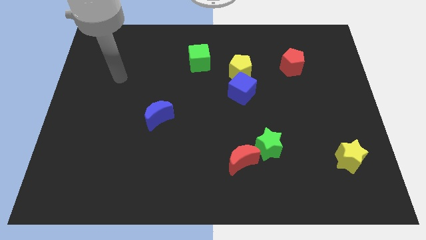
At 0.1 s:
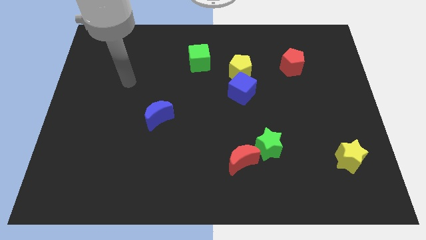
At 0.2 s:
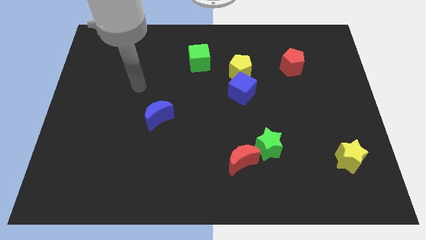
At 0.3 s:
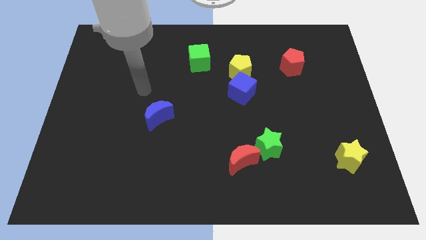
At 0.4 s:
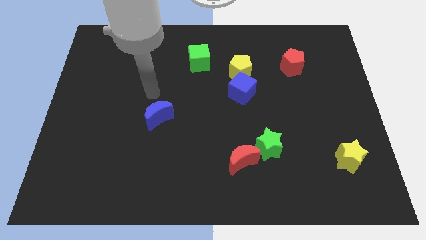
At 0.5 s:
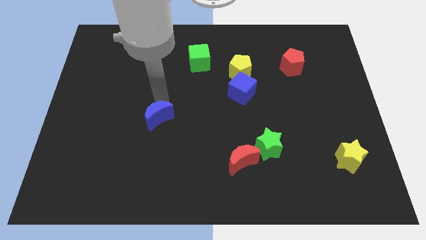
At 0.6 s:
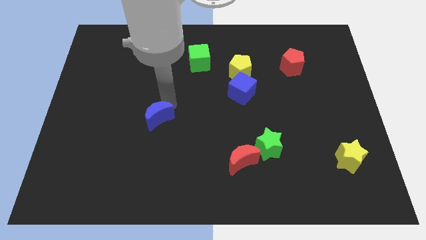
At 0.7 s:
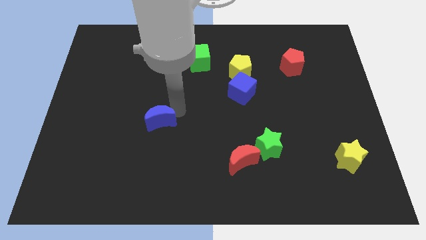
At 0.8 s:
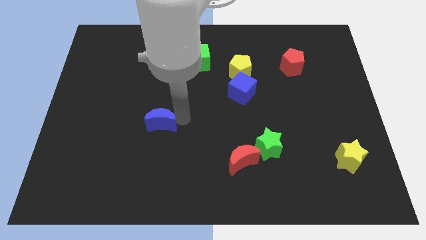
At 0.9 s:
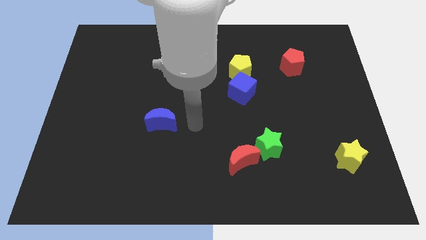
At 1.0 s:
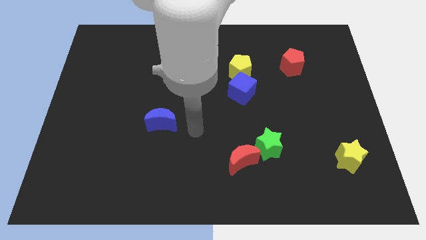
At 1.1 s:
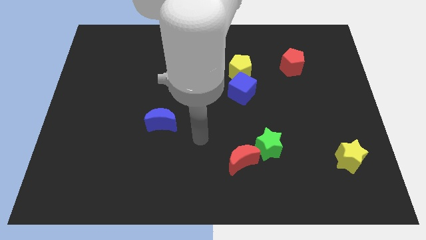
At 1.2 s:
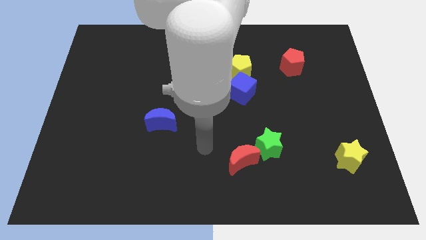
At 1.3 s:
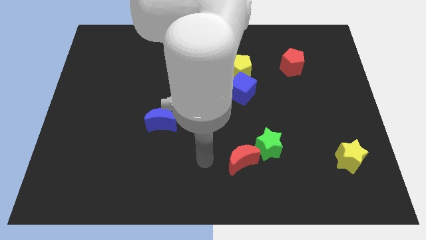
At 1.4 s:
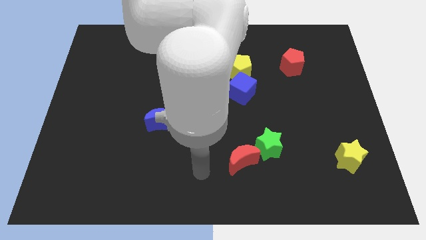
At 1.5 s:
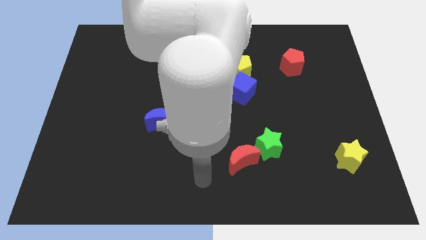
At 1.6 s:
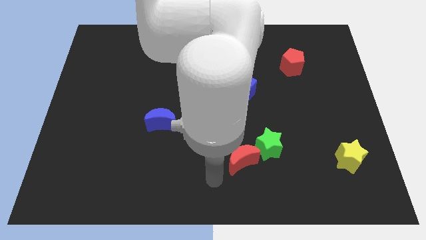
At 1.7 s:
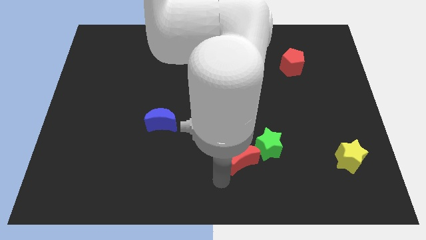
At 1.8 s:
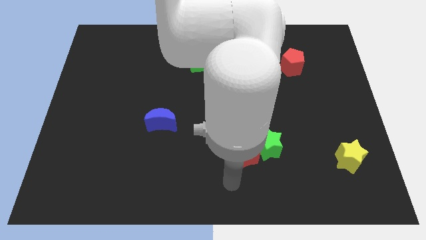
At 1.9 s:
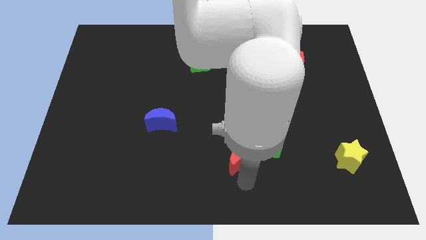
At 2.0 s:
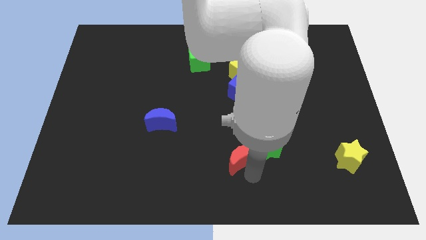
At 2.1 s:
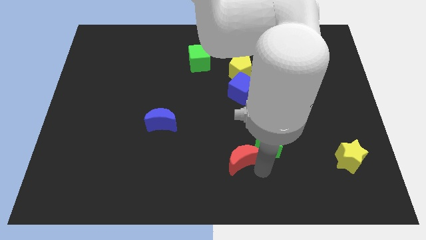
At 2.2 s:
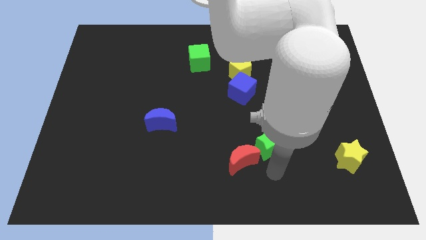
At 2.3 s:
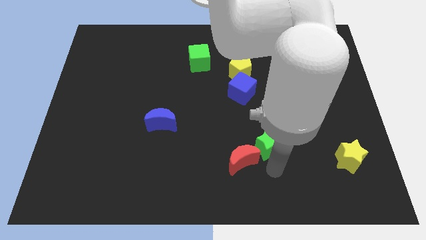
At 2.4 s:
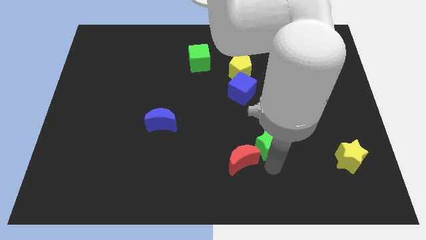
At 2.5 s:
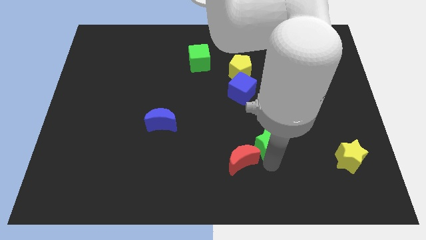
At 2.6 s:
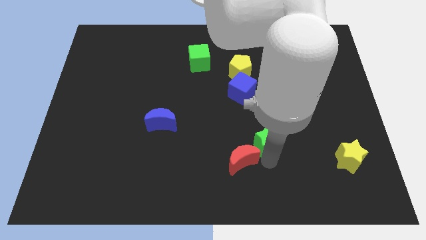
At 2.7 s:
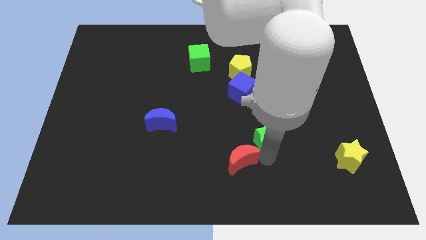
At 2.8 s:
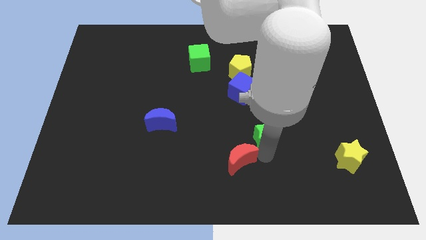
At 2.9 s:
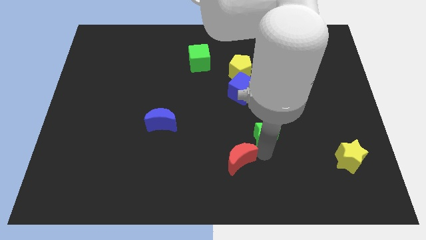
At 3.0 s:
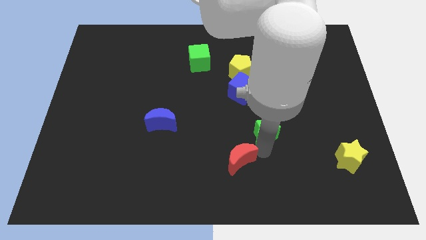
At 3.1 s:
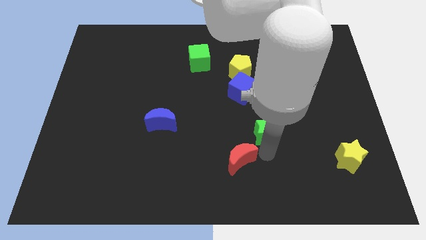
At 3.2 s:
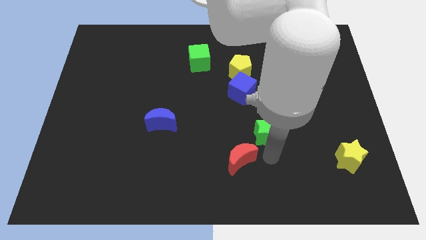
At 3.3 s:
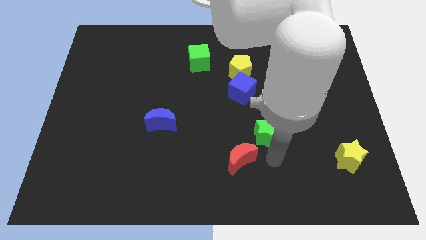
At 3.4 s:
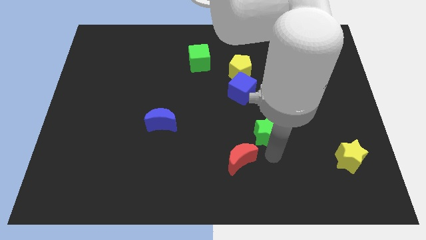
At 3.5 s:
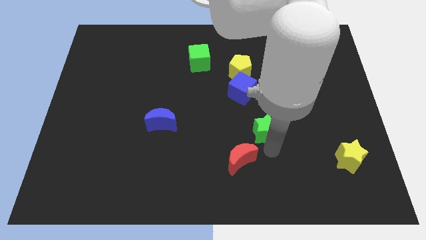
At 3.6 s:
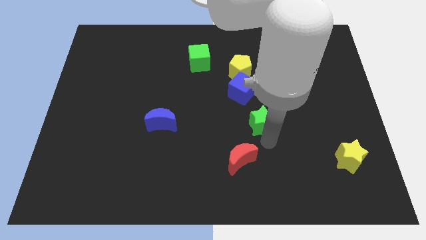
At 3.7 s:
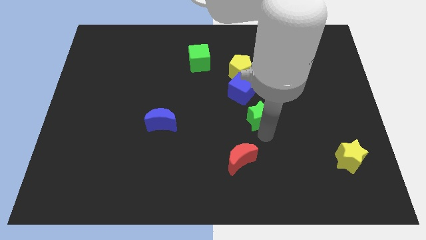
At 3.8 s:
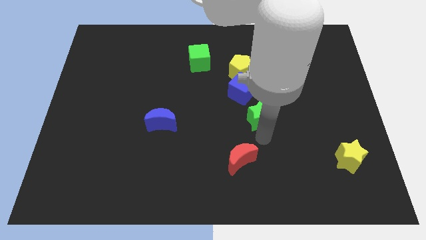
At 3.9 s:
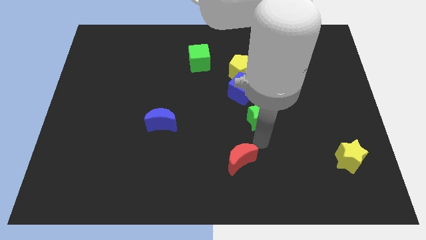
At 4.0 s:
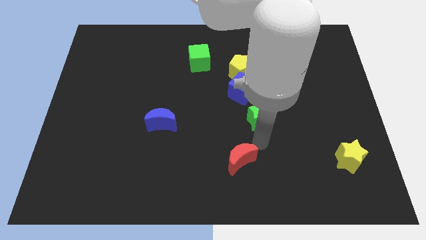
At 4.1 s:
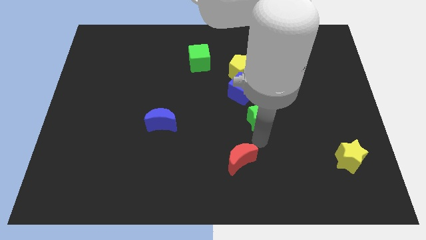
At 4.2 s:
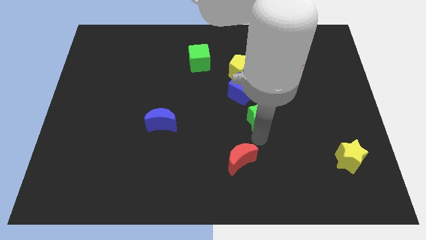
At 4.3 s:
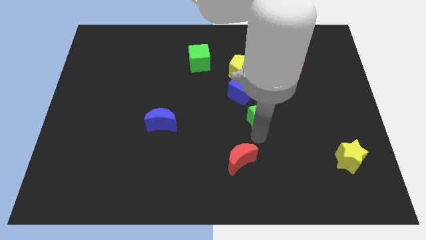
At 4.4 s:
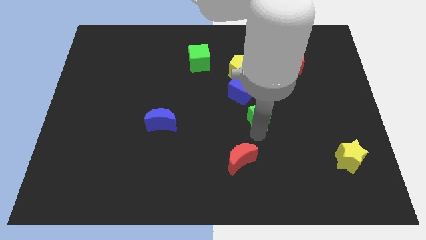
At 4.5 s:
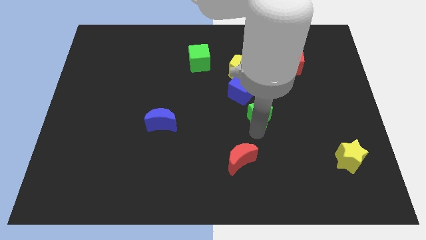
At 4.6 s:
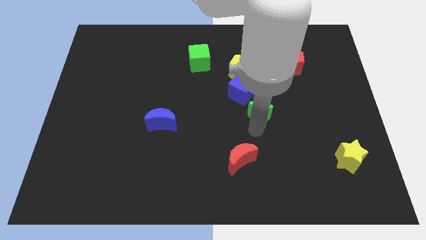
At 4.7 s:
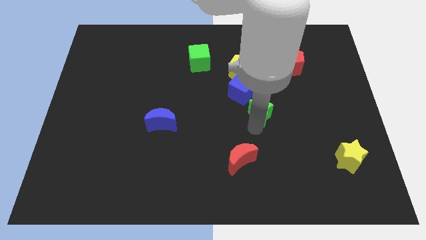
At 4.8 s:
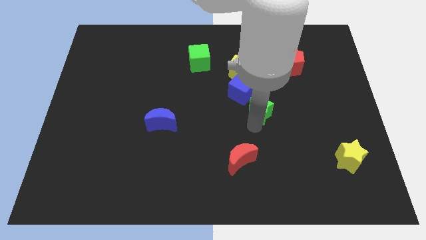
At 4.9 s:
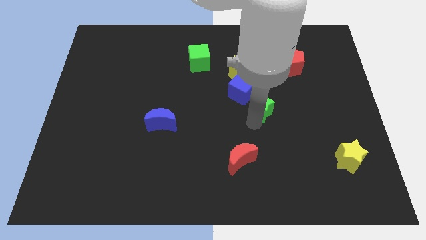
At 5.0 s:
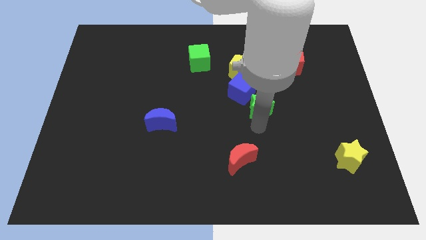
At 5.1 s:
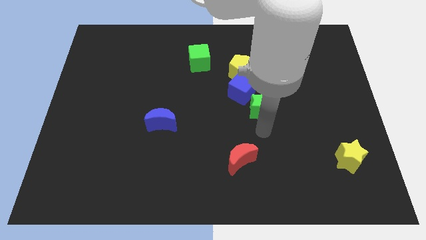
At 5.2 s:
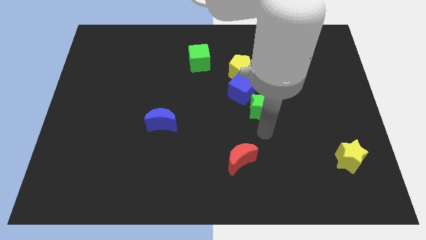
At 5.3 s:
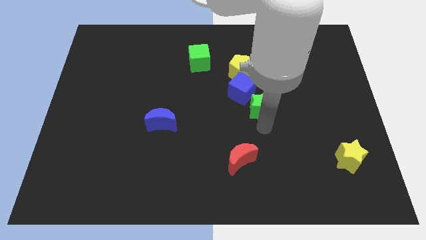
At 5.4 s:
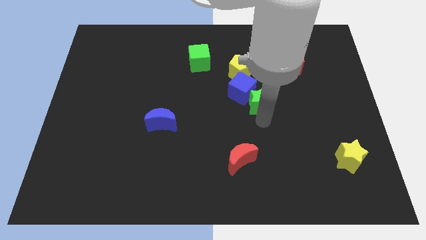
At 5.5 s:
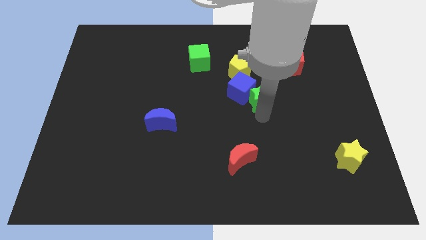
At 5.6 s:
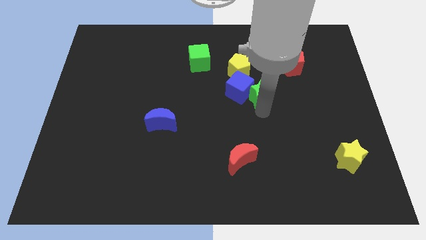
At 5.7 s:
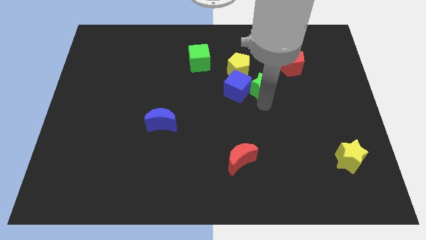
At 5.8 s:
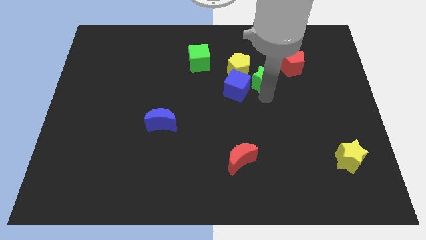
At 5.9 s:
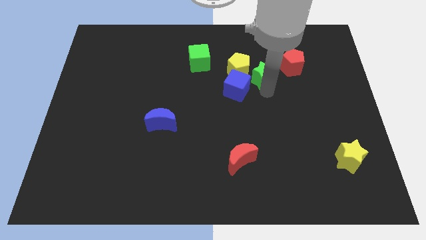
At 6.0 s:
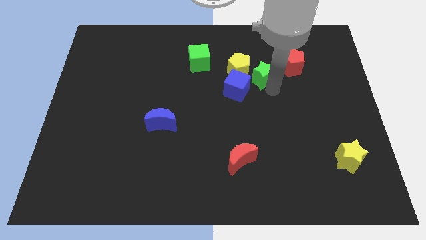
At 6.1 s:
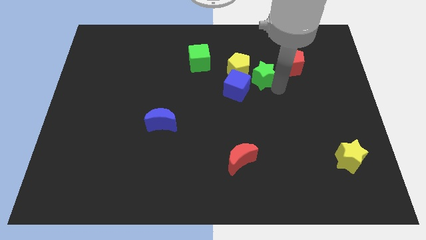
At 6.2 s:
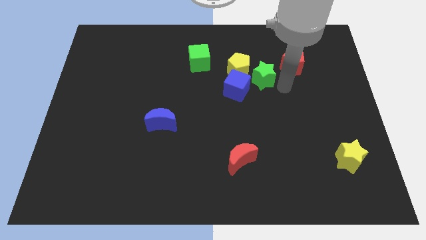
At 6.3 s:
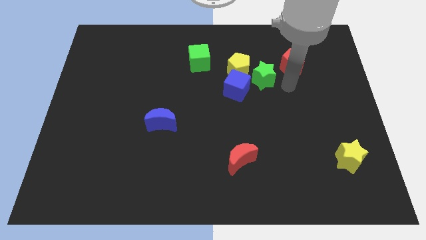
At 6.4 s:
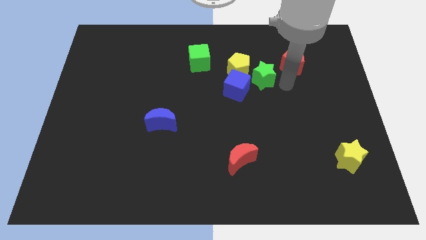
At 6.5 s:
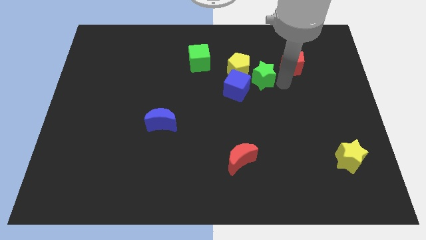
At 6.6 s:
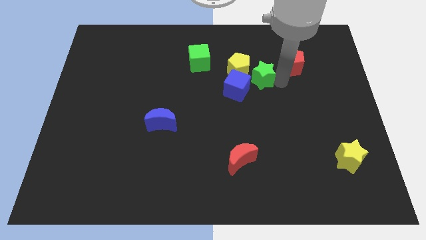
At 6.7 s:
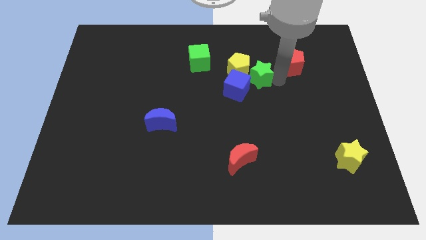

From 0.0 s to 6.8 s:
push the green star close to the yellow pentagon
